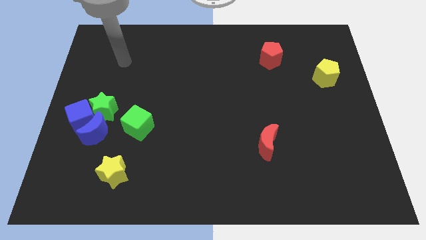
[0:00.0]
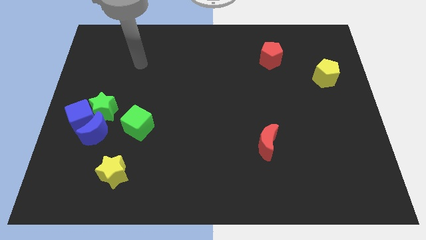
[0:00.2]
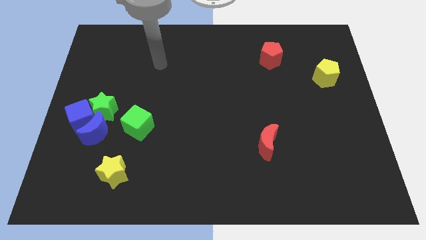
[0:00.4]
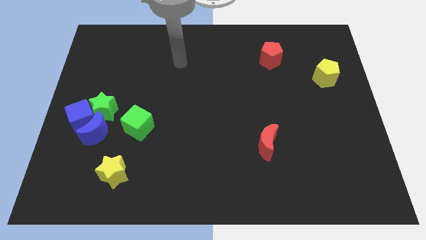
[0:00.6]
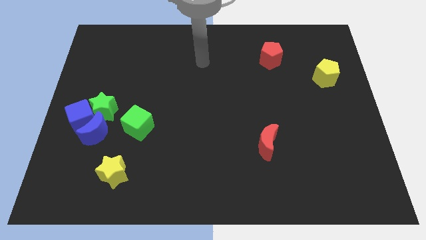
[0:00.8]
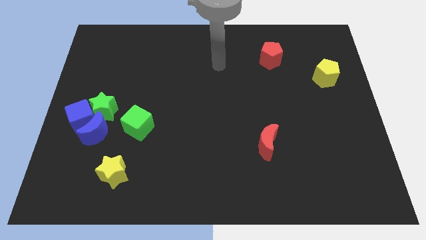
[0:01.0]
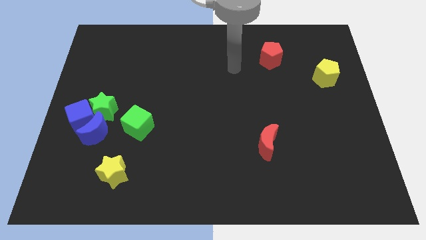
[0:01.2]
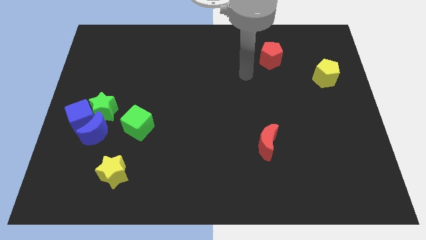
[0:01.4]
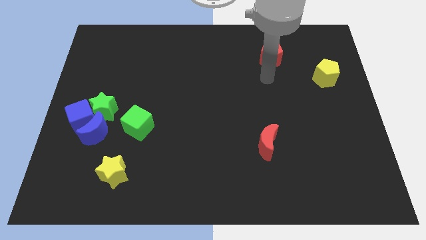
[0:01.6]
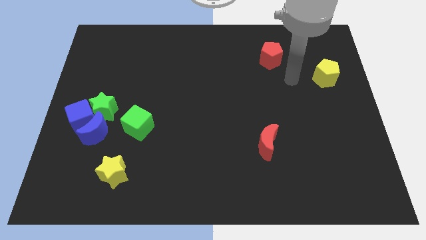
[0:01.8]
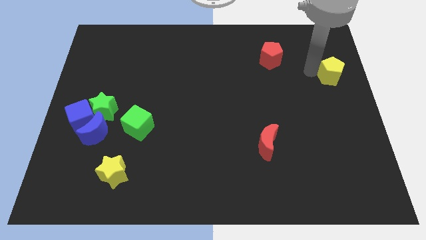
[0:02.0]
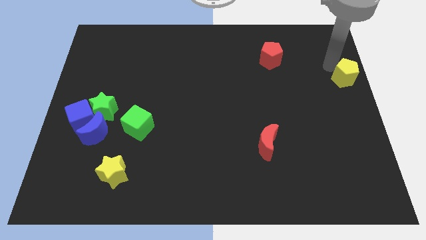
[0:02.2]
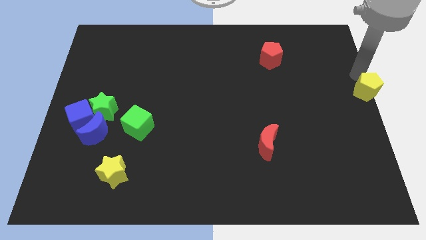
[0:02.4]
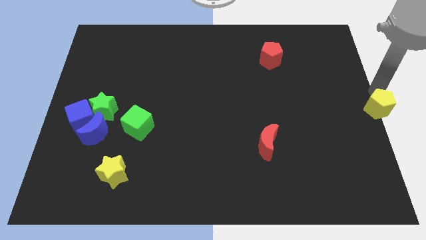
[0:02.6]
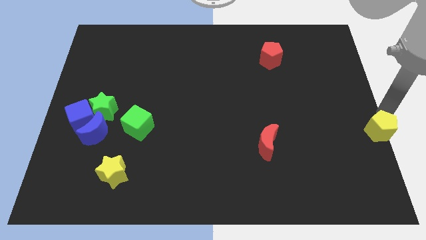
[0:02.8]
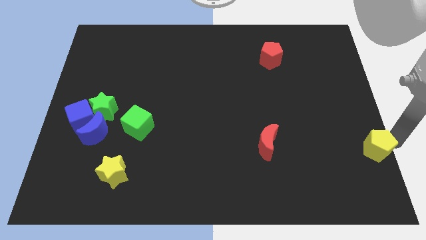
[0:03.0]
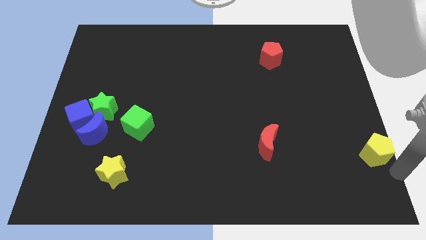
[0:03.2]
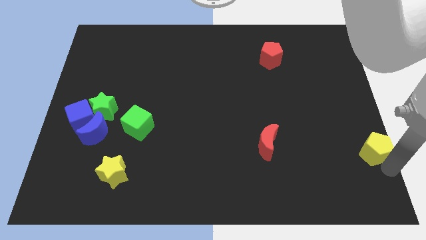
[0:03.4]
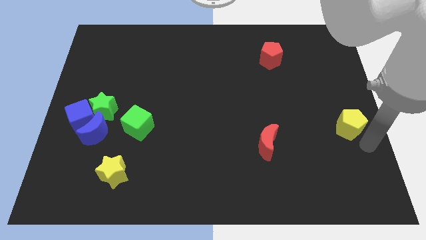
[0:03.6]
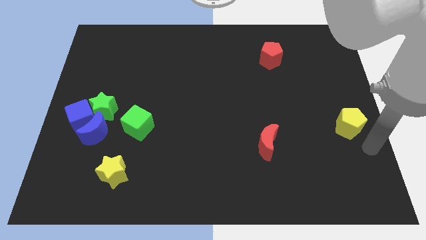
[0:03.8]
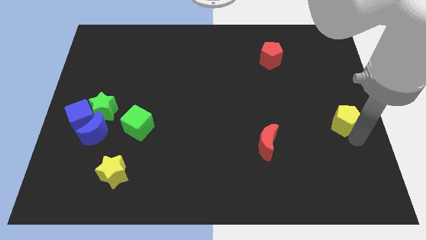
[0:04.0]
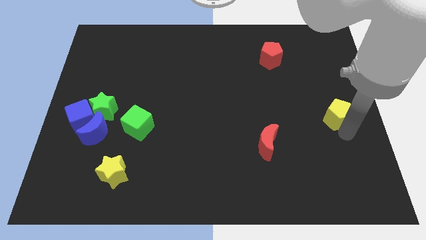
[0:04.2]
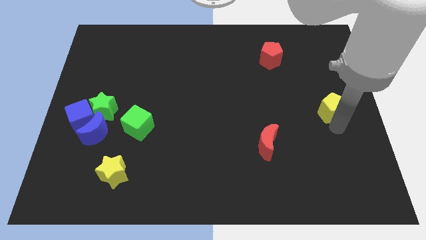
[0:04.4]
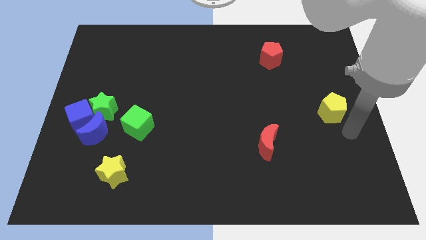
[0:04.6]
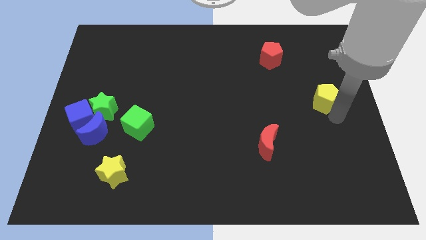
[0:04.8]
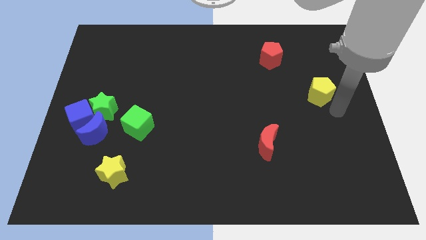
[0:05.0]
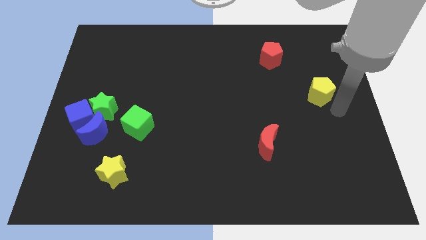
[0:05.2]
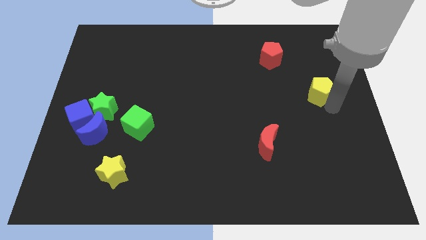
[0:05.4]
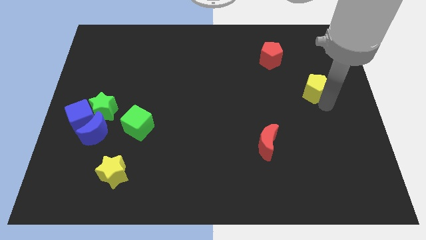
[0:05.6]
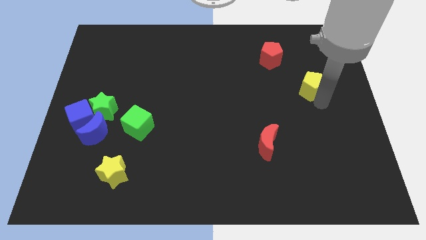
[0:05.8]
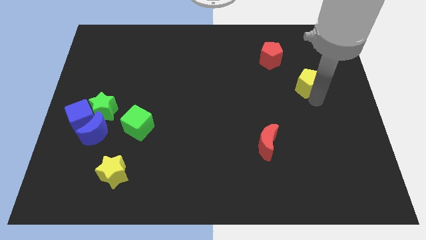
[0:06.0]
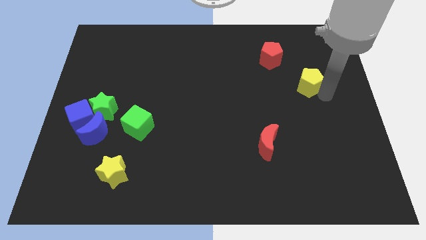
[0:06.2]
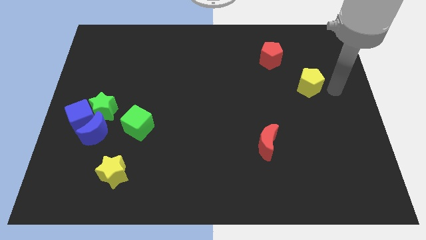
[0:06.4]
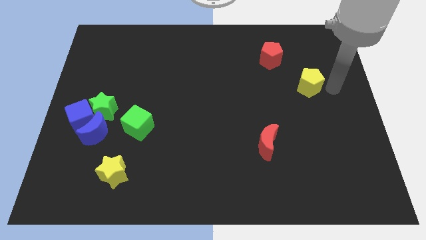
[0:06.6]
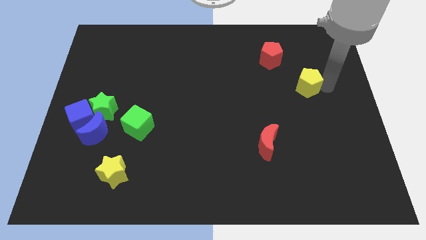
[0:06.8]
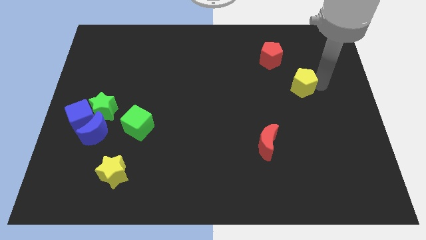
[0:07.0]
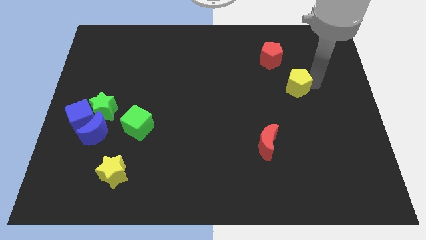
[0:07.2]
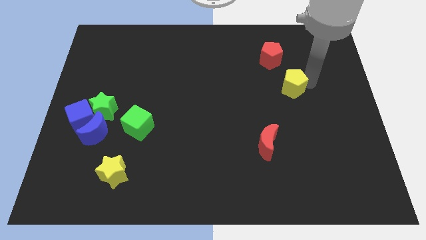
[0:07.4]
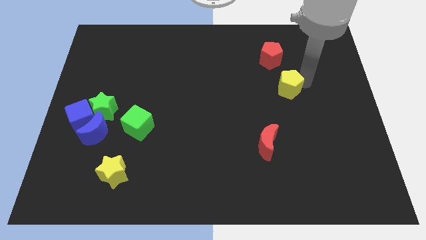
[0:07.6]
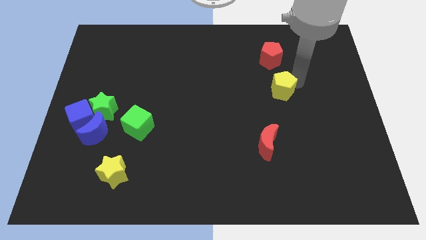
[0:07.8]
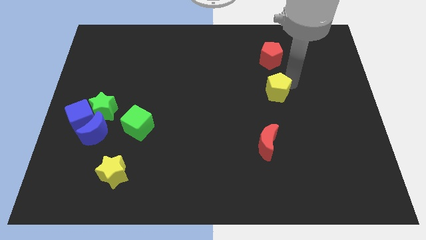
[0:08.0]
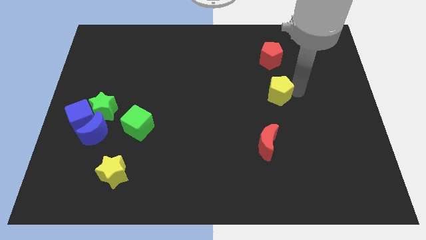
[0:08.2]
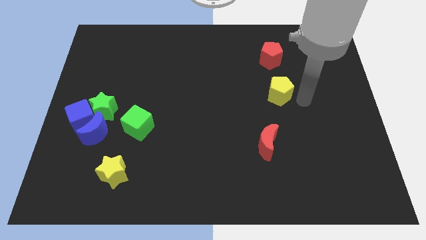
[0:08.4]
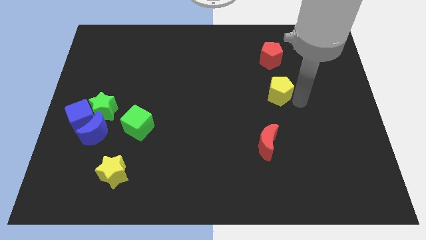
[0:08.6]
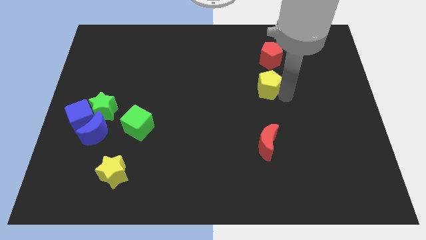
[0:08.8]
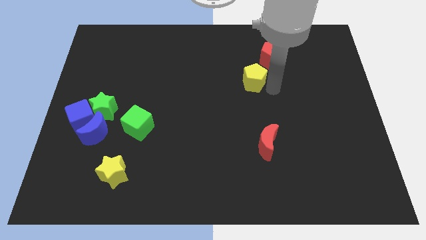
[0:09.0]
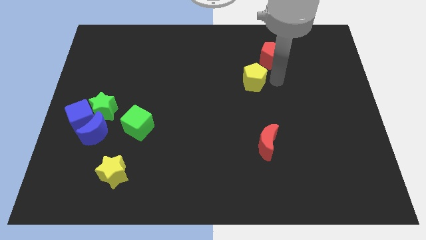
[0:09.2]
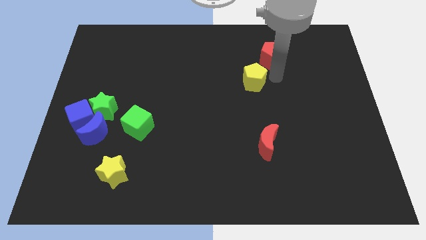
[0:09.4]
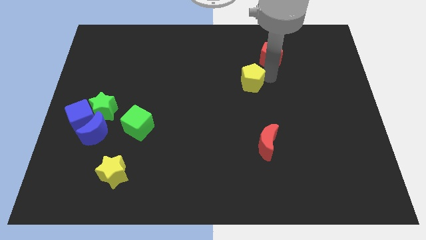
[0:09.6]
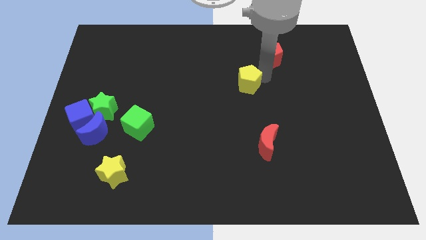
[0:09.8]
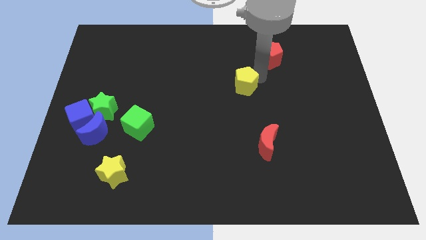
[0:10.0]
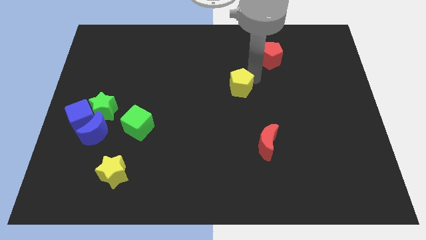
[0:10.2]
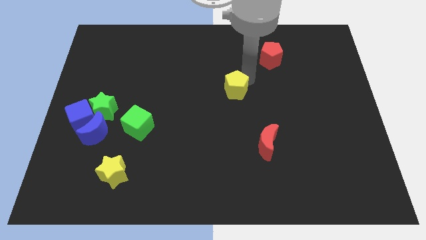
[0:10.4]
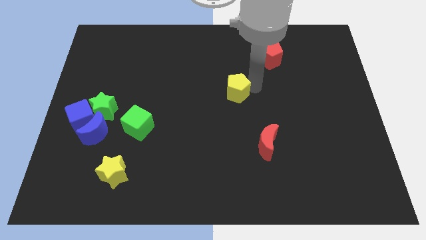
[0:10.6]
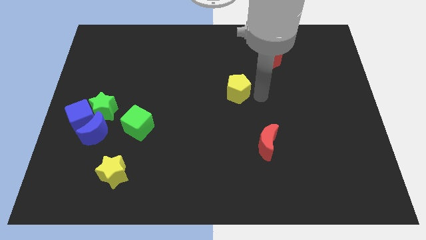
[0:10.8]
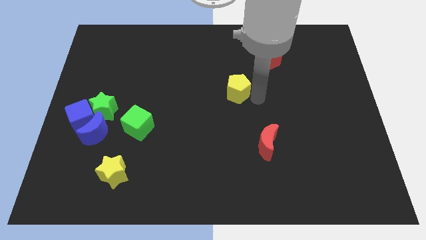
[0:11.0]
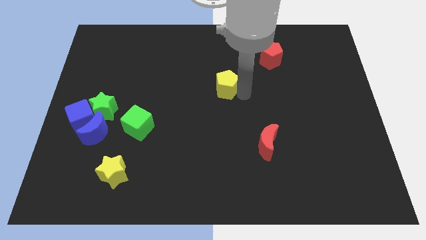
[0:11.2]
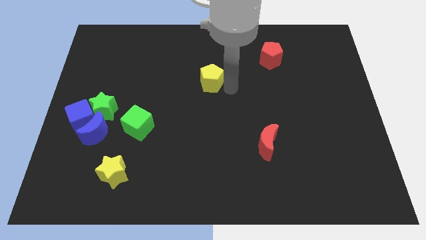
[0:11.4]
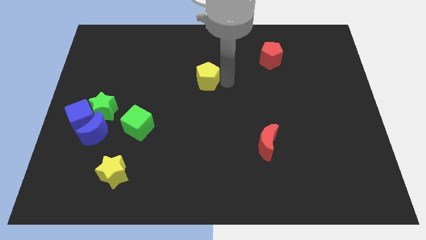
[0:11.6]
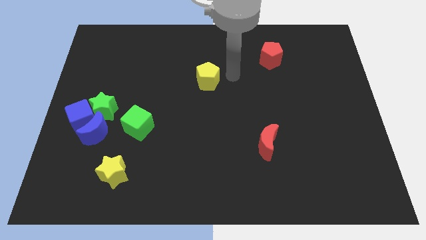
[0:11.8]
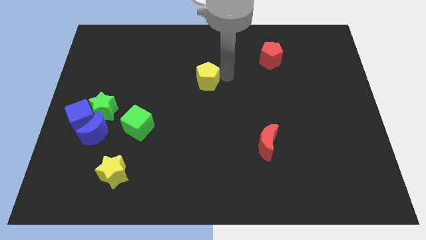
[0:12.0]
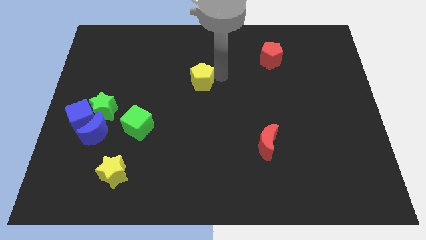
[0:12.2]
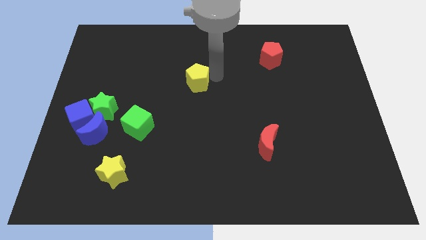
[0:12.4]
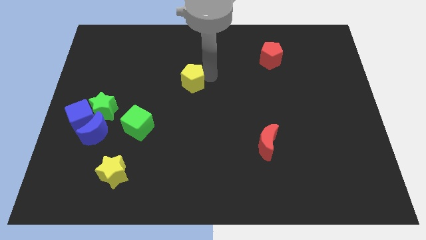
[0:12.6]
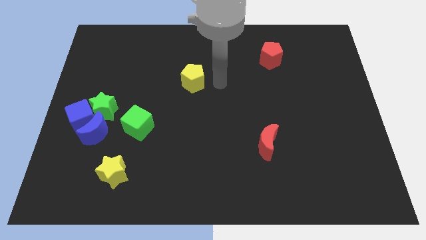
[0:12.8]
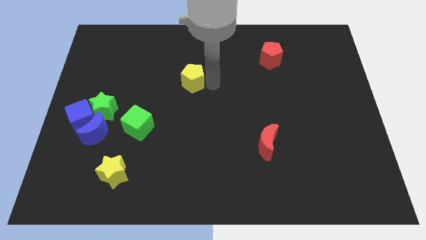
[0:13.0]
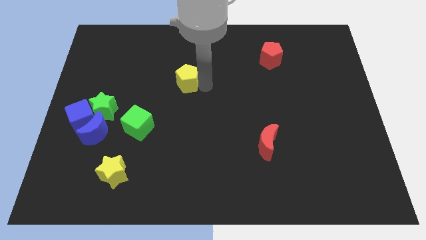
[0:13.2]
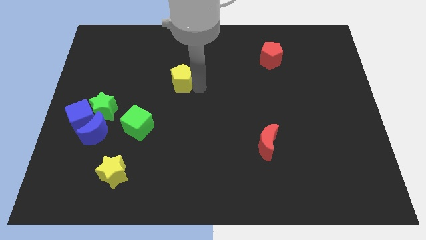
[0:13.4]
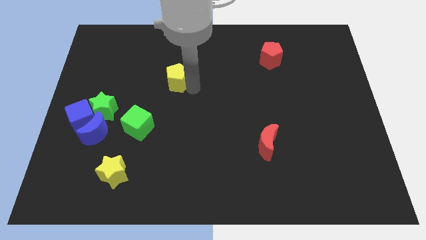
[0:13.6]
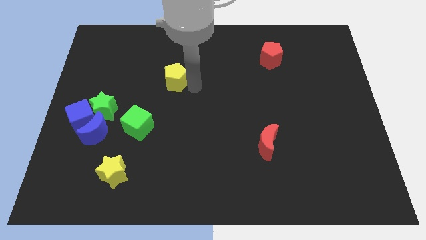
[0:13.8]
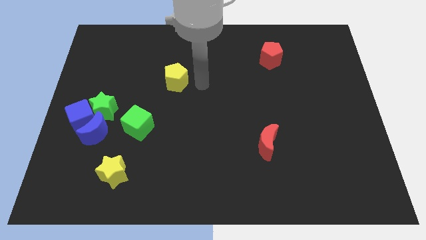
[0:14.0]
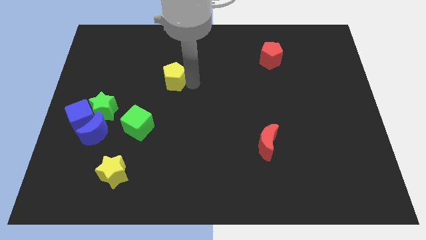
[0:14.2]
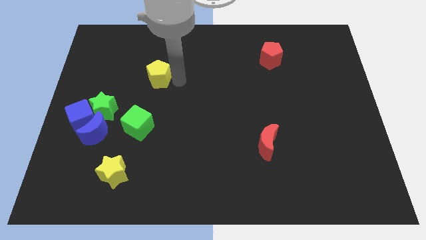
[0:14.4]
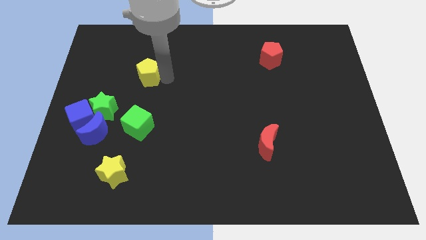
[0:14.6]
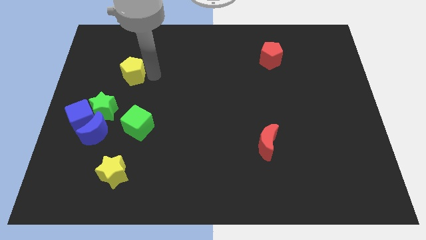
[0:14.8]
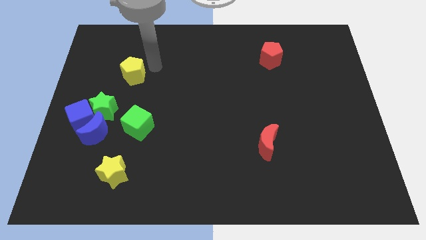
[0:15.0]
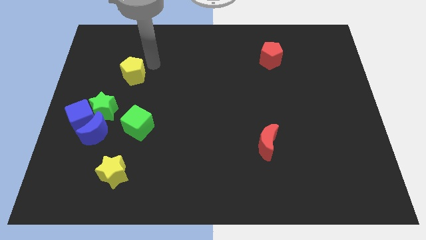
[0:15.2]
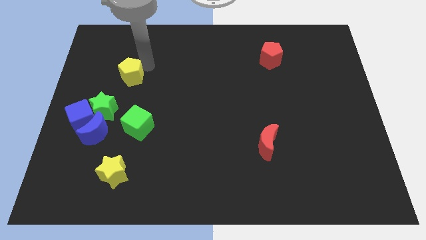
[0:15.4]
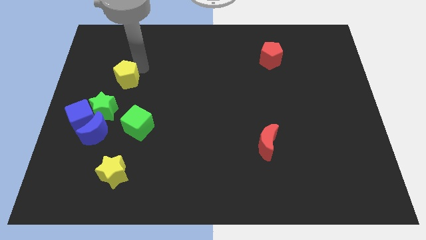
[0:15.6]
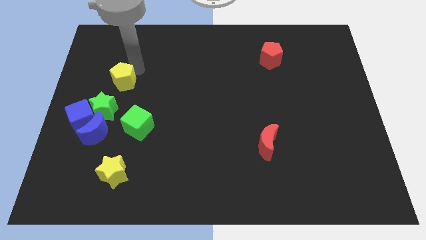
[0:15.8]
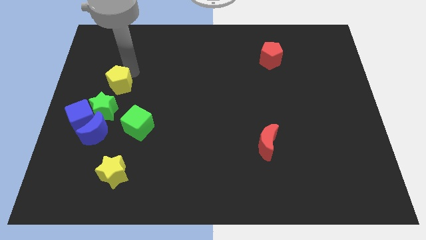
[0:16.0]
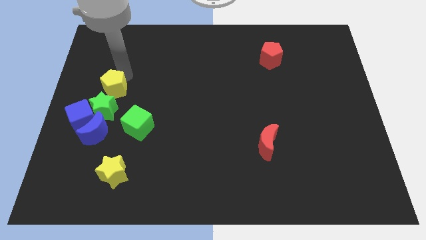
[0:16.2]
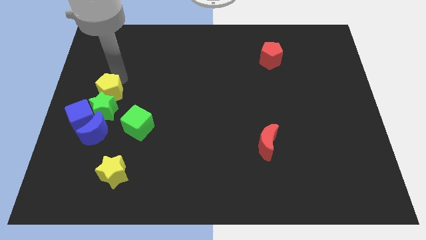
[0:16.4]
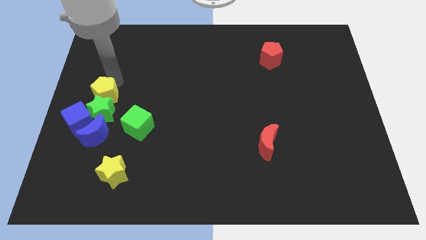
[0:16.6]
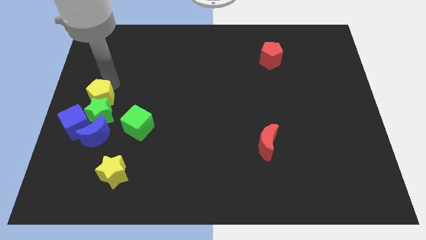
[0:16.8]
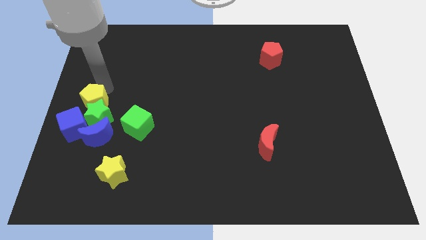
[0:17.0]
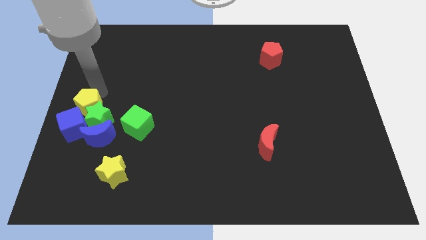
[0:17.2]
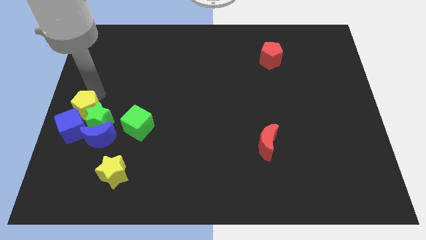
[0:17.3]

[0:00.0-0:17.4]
put the yellow pentagon to the blue cube
